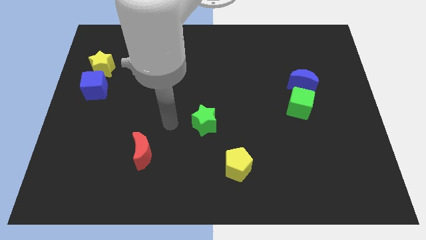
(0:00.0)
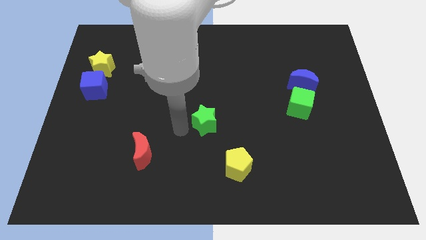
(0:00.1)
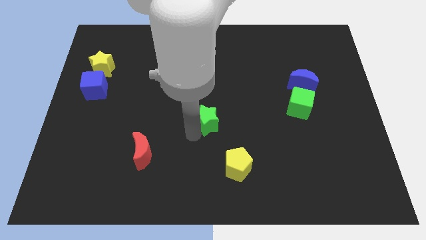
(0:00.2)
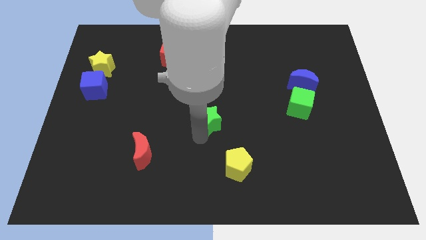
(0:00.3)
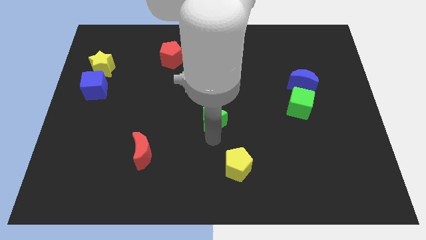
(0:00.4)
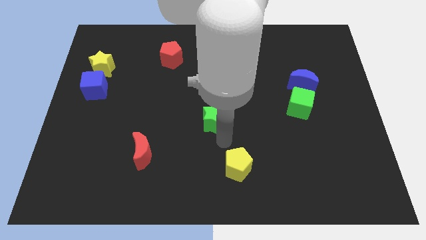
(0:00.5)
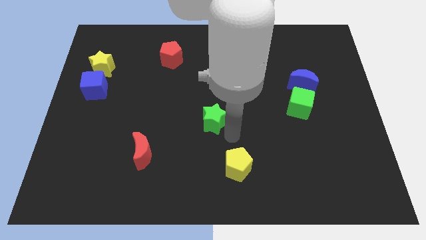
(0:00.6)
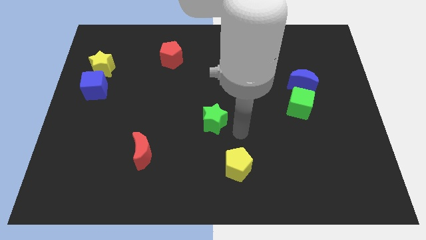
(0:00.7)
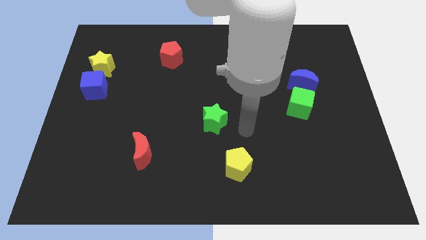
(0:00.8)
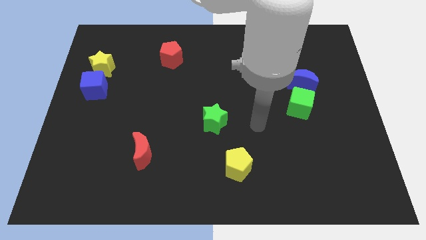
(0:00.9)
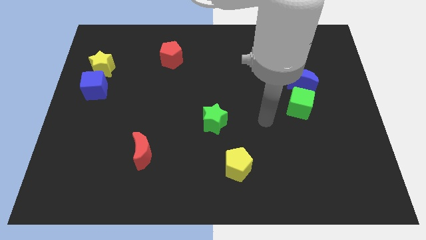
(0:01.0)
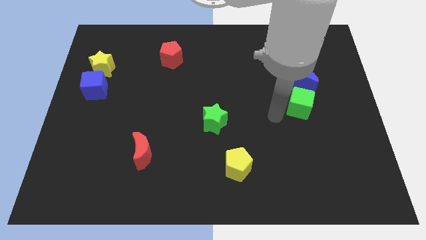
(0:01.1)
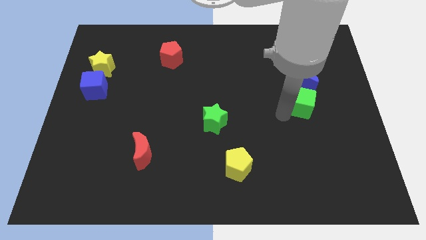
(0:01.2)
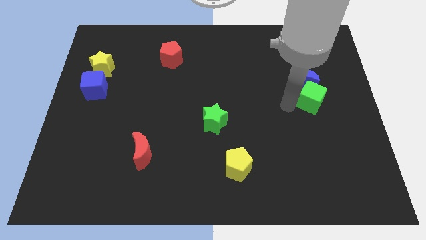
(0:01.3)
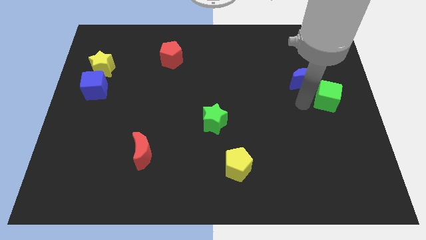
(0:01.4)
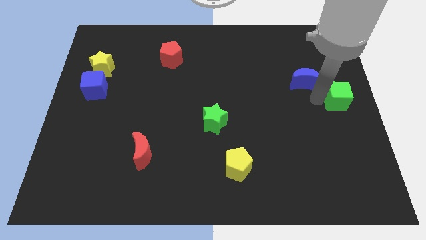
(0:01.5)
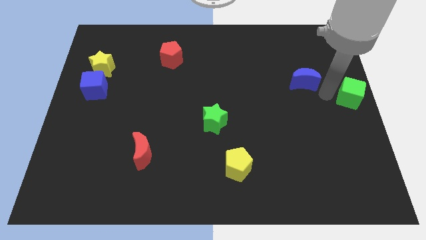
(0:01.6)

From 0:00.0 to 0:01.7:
pull the blue moon apart from the green cube

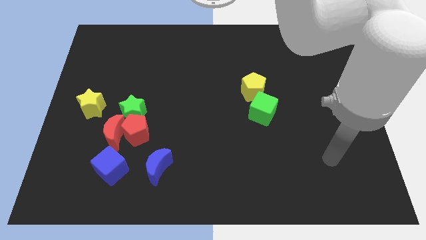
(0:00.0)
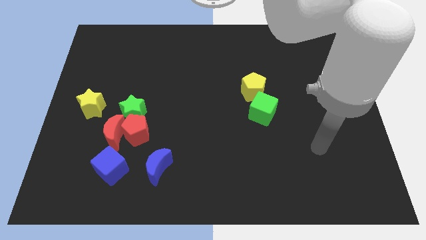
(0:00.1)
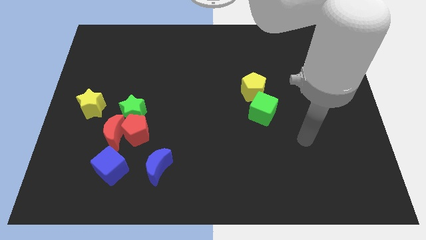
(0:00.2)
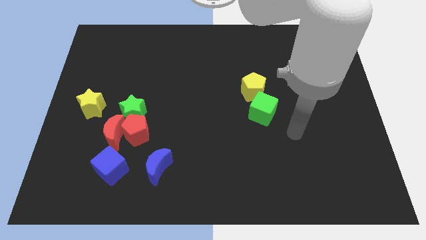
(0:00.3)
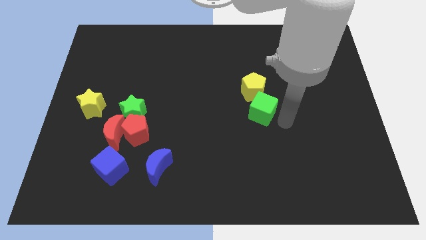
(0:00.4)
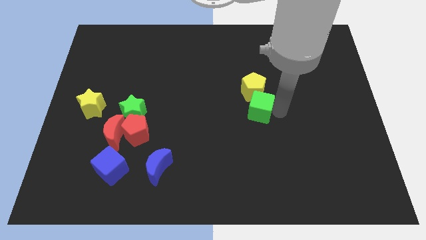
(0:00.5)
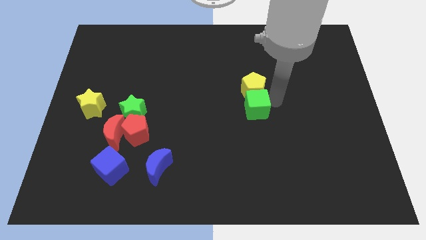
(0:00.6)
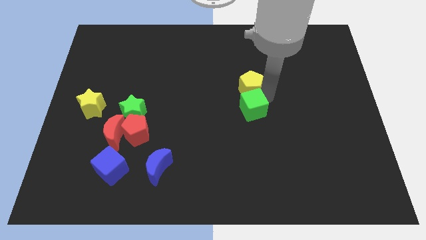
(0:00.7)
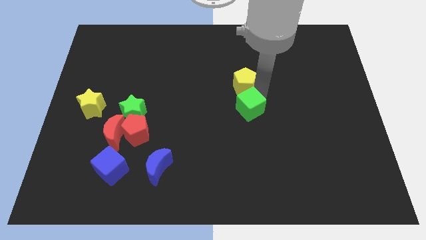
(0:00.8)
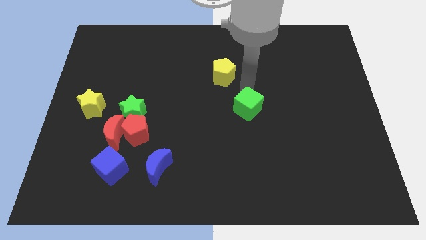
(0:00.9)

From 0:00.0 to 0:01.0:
pull the green cube apart from the yellow pentagon

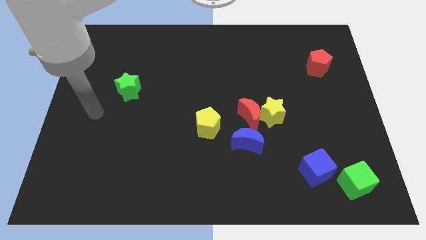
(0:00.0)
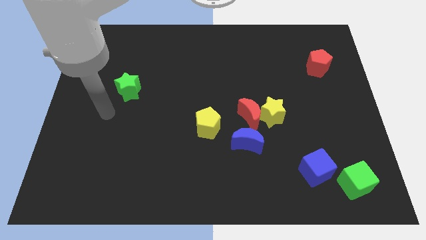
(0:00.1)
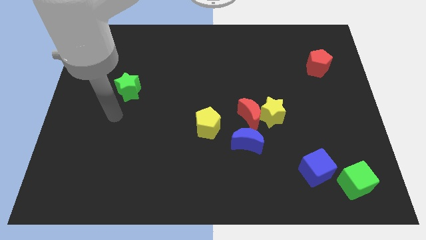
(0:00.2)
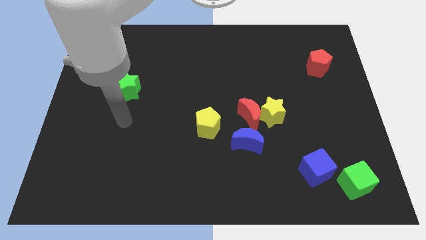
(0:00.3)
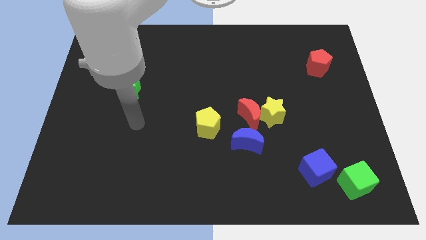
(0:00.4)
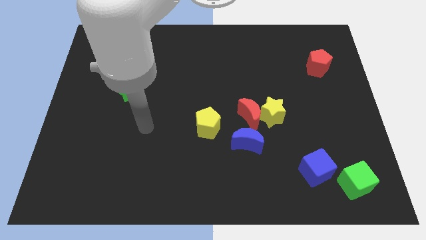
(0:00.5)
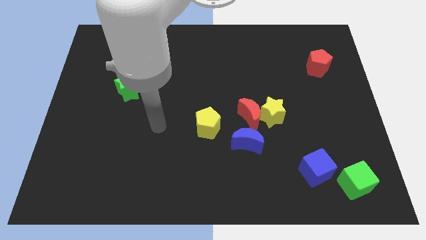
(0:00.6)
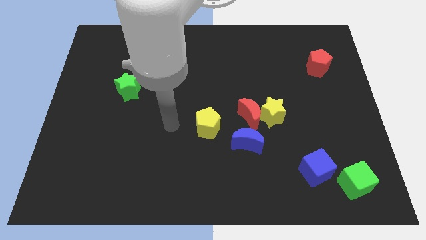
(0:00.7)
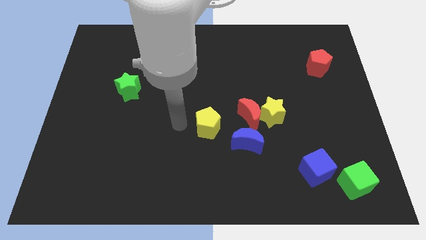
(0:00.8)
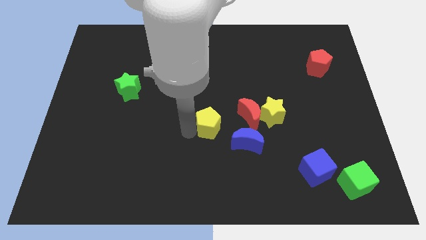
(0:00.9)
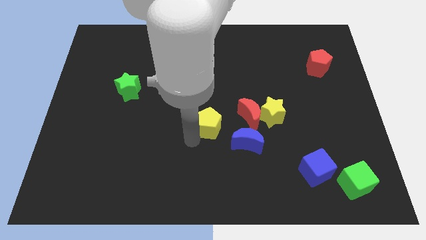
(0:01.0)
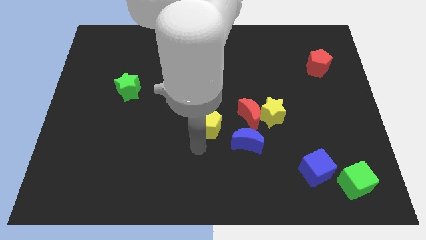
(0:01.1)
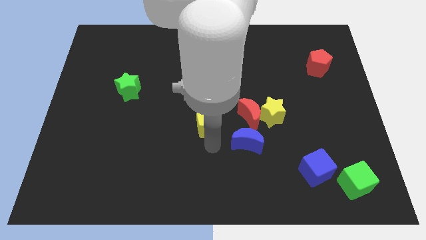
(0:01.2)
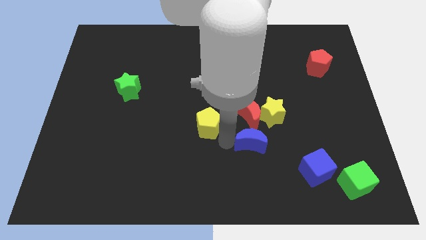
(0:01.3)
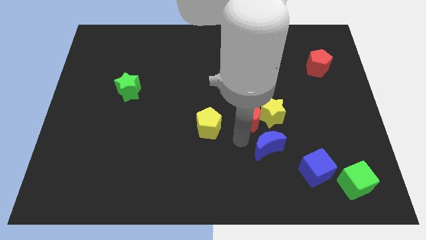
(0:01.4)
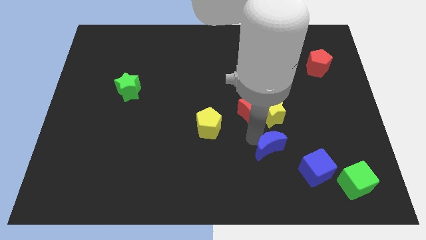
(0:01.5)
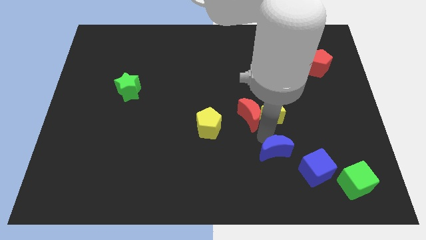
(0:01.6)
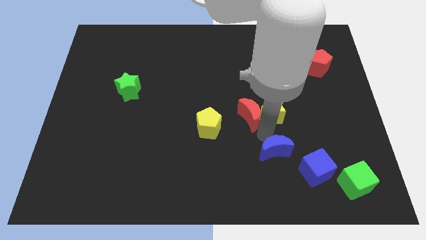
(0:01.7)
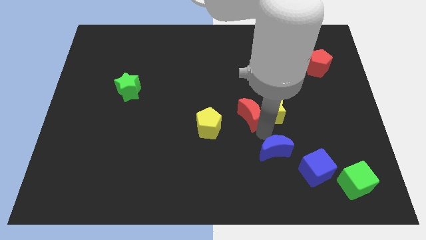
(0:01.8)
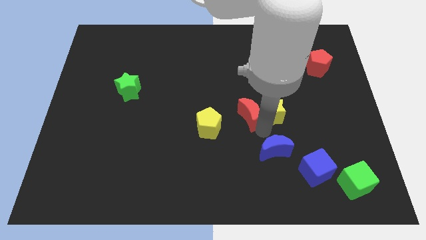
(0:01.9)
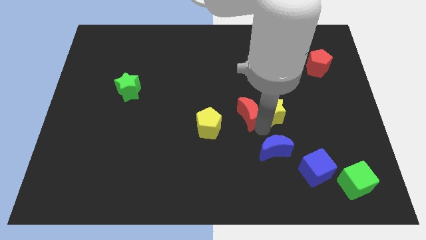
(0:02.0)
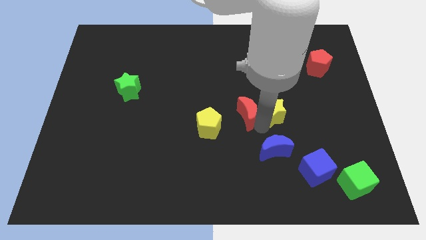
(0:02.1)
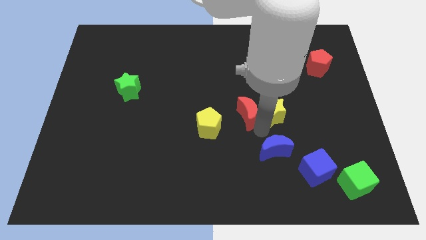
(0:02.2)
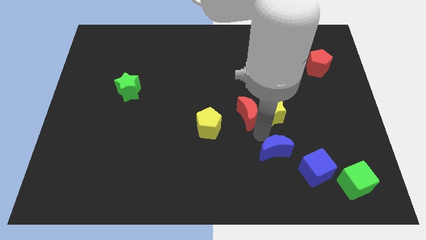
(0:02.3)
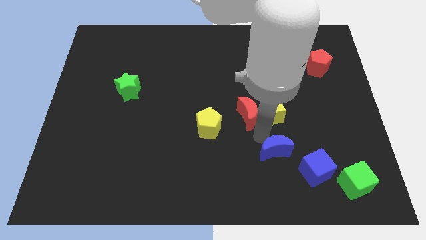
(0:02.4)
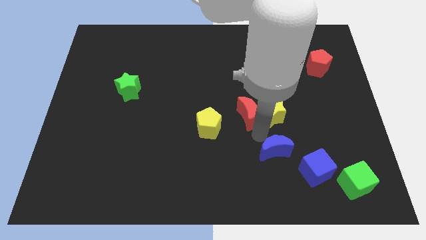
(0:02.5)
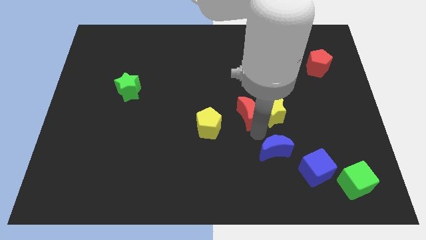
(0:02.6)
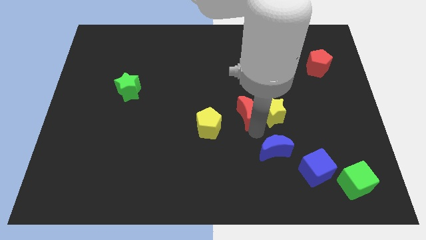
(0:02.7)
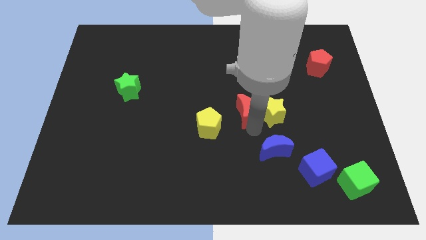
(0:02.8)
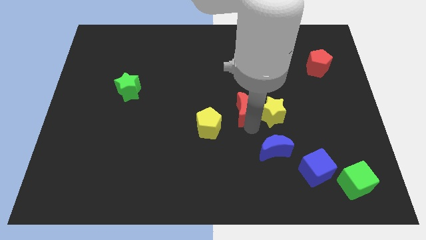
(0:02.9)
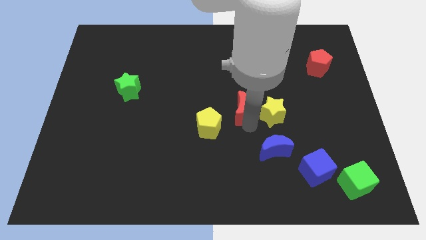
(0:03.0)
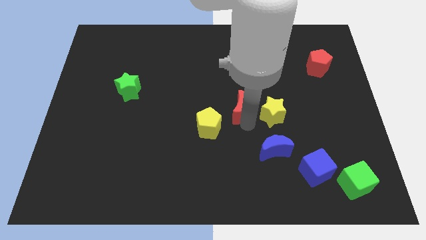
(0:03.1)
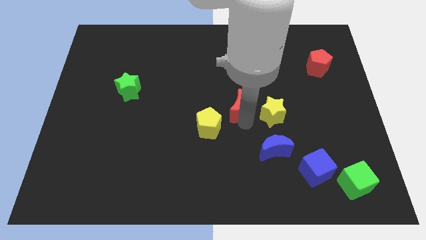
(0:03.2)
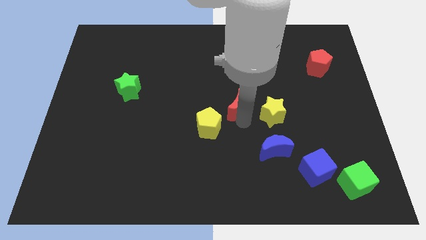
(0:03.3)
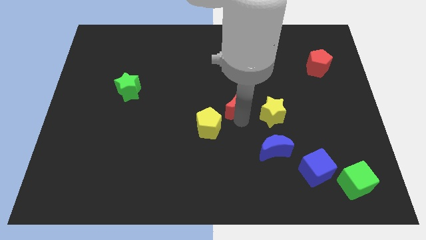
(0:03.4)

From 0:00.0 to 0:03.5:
separate the red moon from the yellow star and blue moon

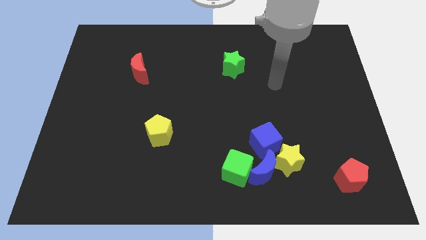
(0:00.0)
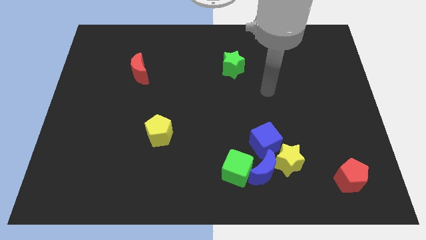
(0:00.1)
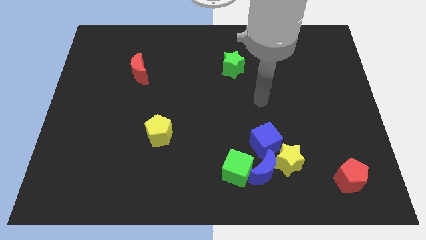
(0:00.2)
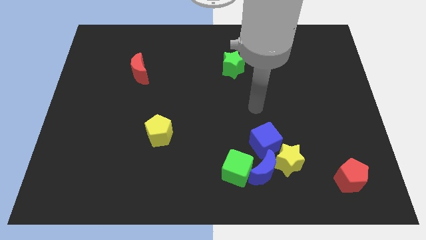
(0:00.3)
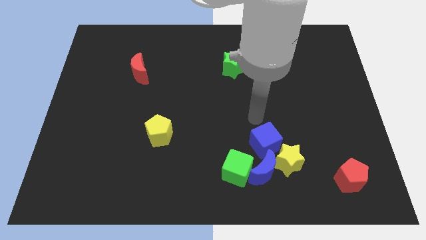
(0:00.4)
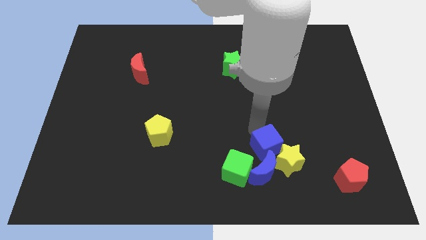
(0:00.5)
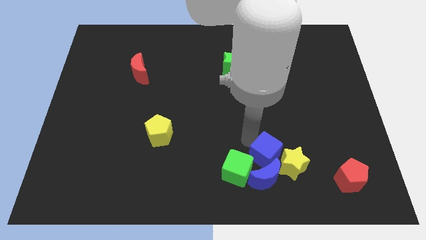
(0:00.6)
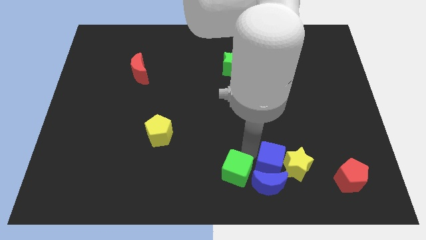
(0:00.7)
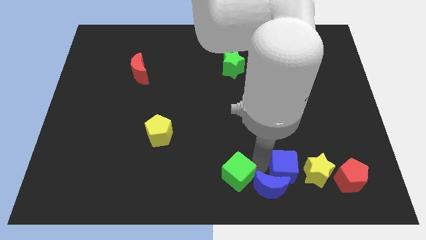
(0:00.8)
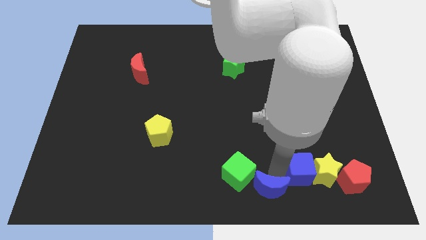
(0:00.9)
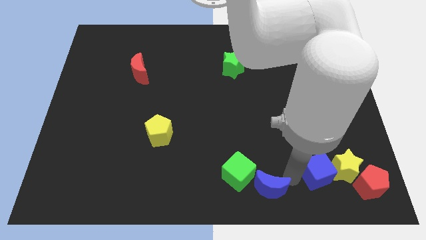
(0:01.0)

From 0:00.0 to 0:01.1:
separate the yellow star from the blue moon and blue cube

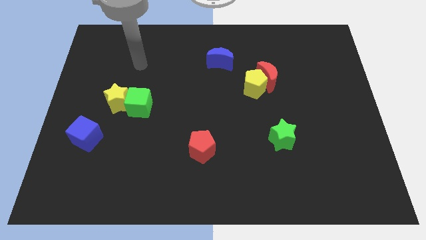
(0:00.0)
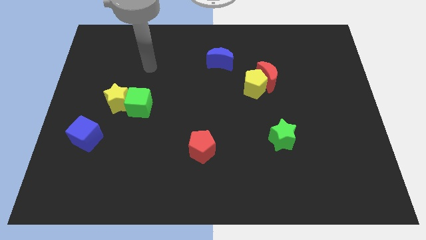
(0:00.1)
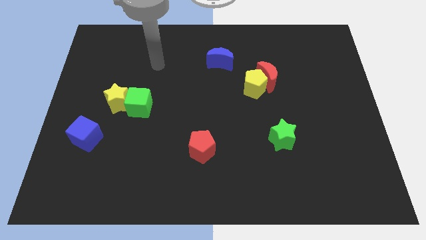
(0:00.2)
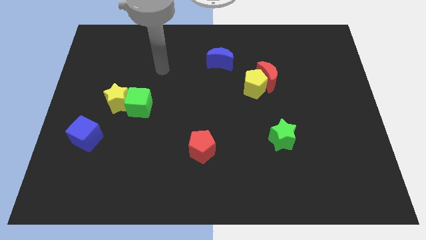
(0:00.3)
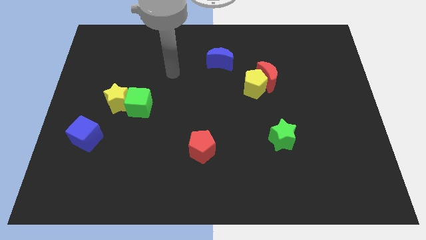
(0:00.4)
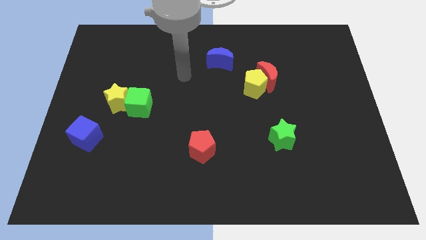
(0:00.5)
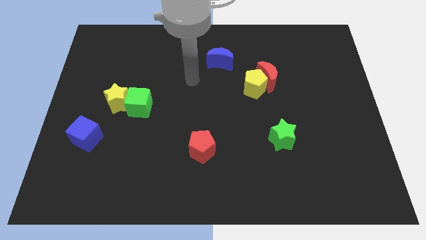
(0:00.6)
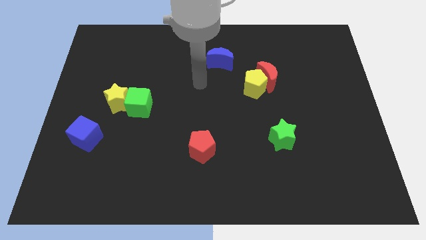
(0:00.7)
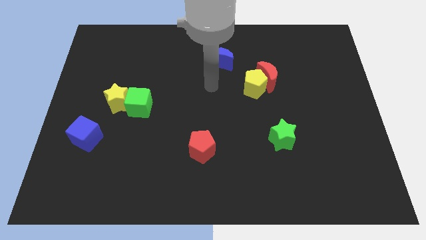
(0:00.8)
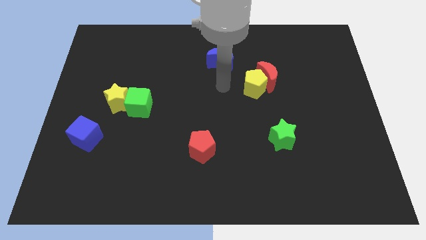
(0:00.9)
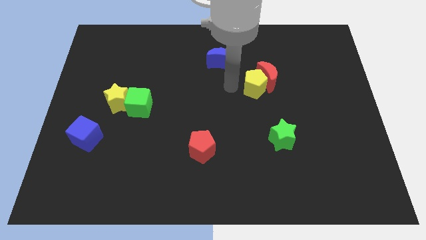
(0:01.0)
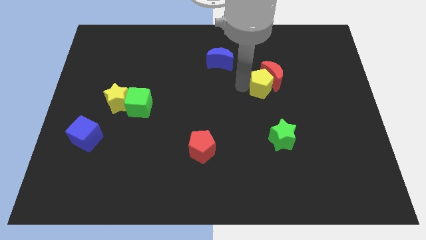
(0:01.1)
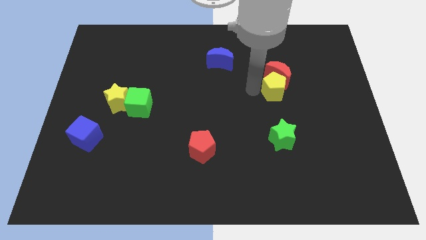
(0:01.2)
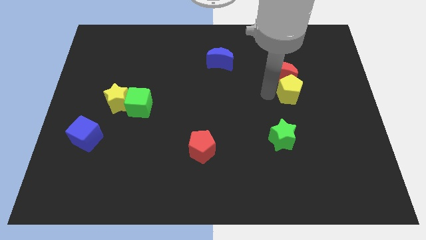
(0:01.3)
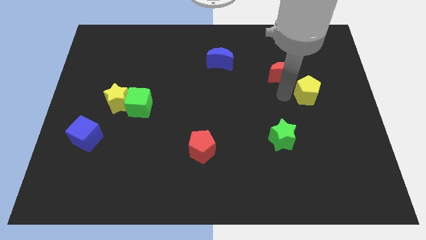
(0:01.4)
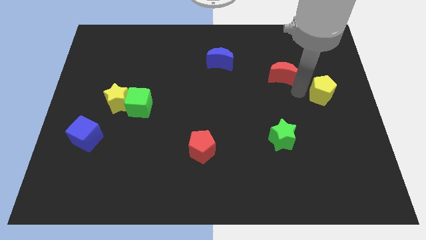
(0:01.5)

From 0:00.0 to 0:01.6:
move the red moon away from the yellow pentagon

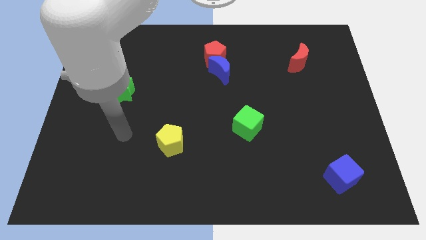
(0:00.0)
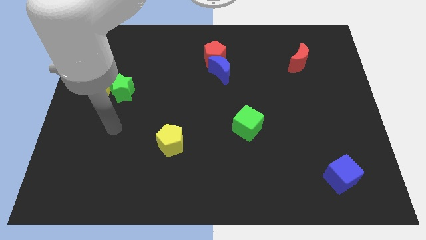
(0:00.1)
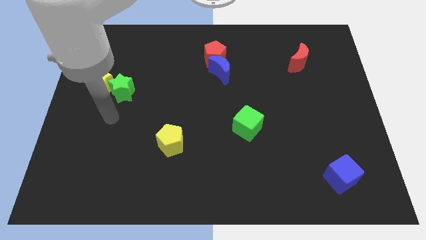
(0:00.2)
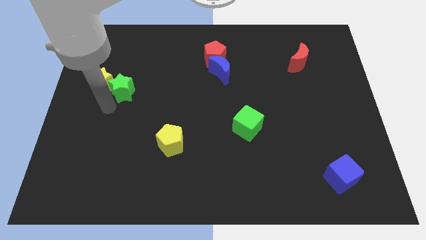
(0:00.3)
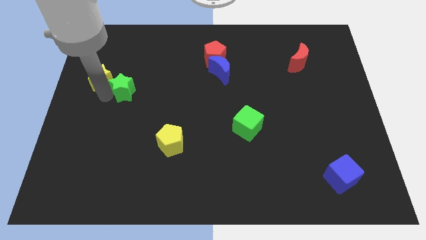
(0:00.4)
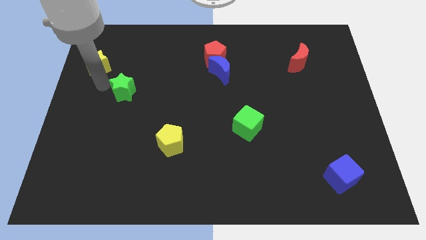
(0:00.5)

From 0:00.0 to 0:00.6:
move the green star away from the yellow star
